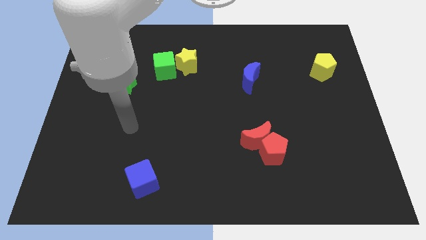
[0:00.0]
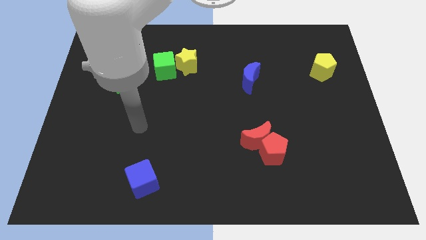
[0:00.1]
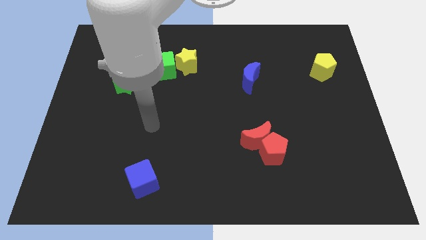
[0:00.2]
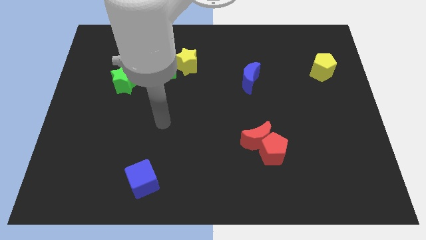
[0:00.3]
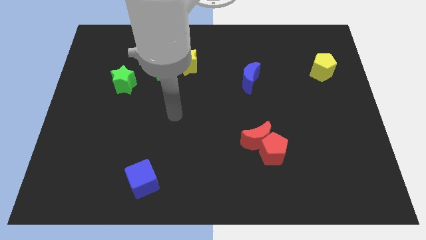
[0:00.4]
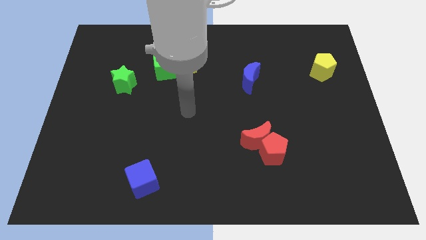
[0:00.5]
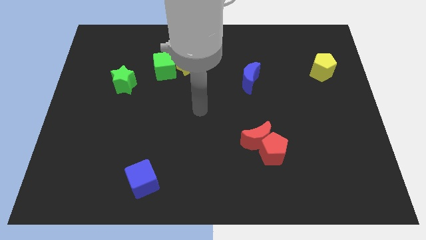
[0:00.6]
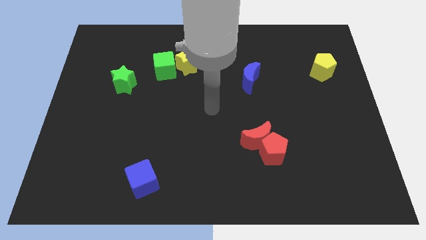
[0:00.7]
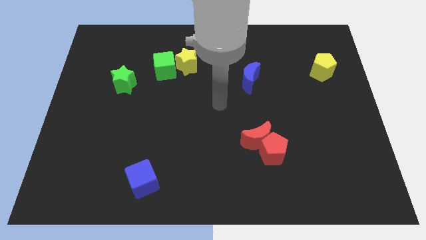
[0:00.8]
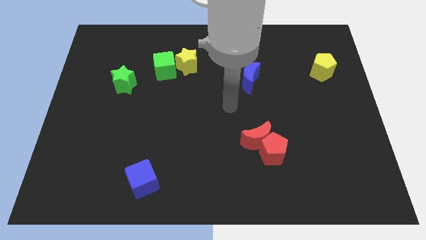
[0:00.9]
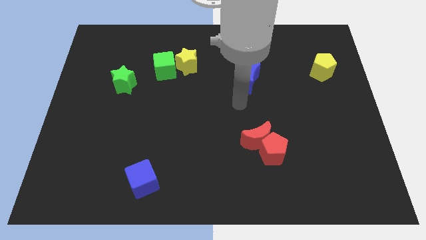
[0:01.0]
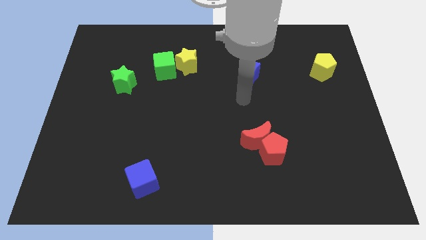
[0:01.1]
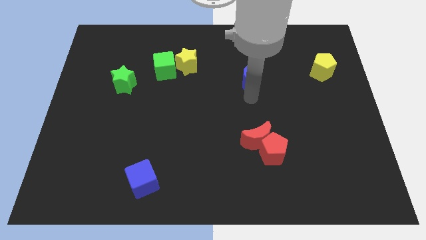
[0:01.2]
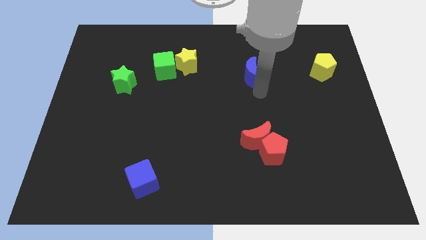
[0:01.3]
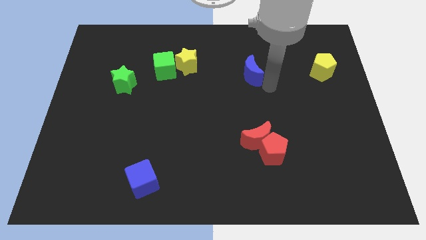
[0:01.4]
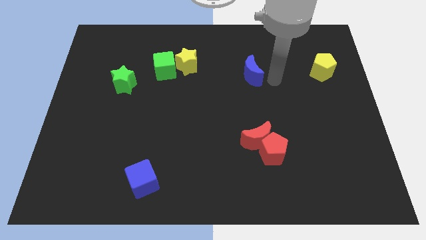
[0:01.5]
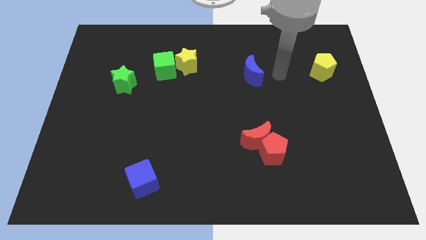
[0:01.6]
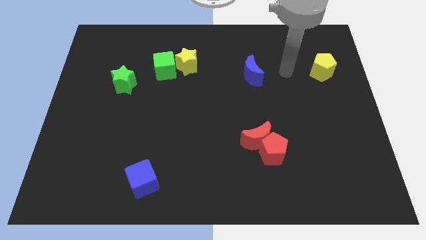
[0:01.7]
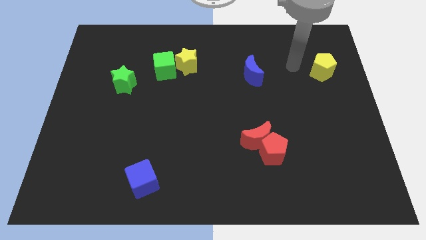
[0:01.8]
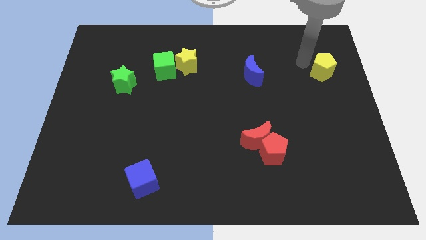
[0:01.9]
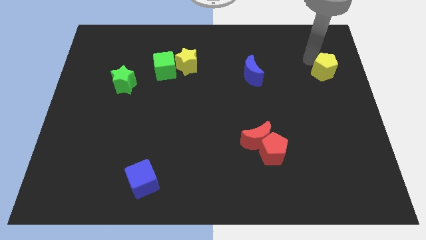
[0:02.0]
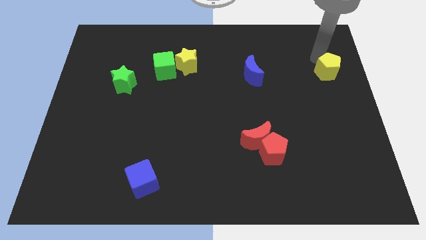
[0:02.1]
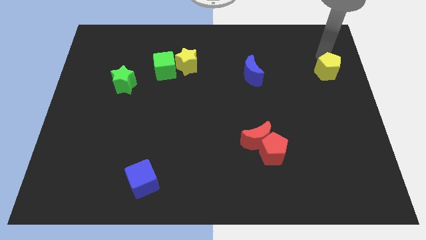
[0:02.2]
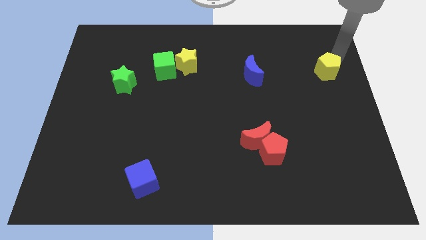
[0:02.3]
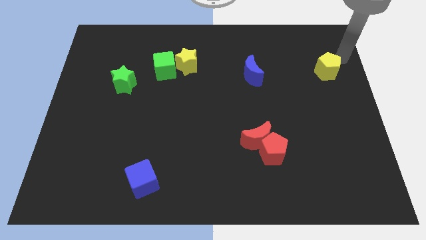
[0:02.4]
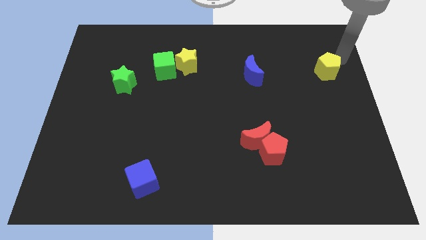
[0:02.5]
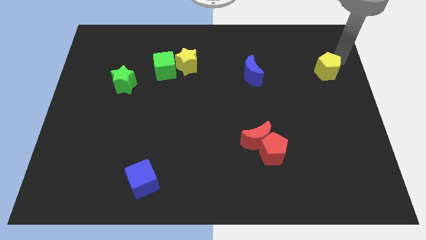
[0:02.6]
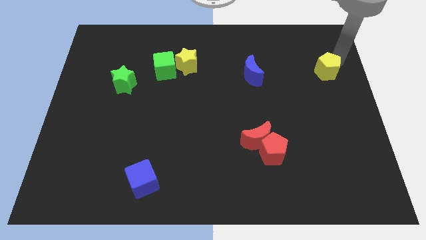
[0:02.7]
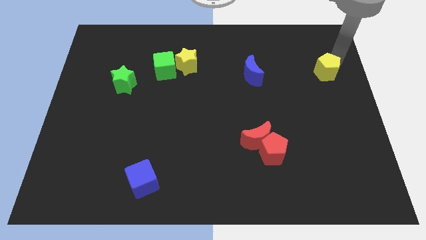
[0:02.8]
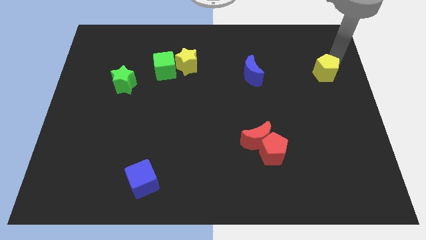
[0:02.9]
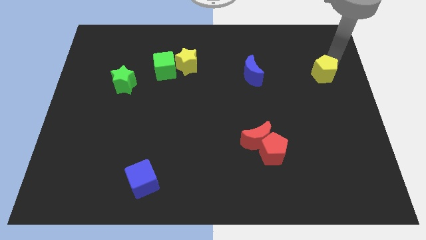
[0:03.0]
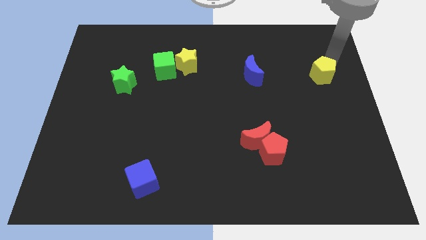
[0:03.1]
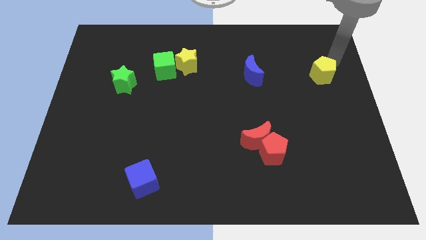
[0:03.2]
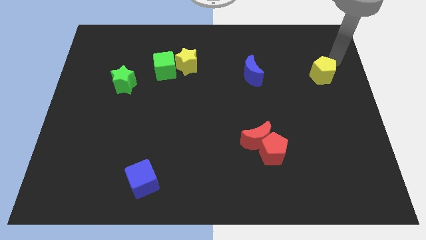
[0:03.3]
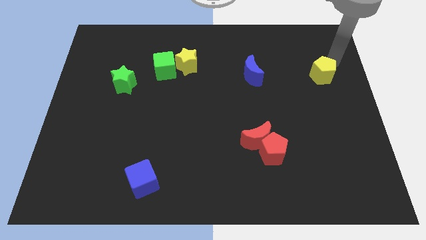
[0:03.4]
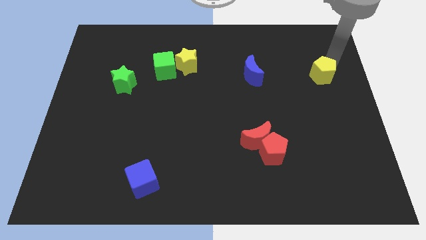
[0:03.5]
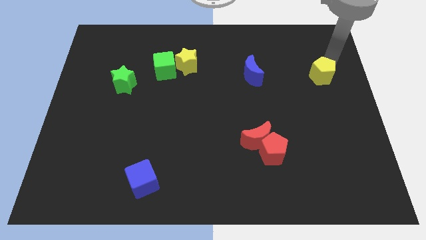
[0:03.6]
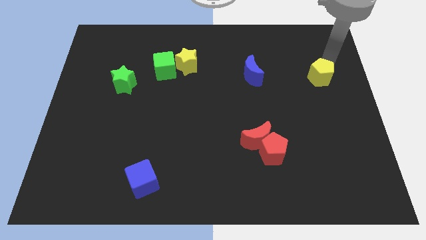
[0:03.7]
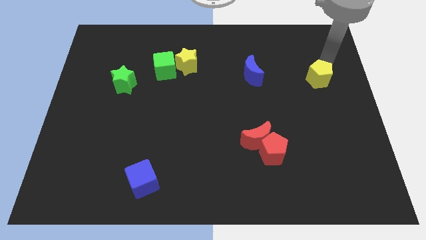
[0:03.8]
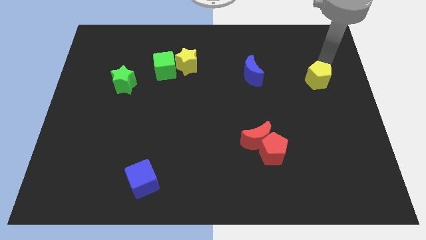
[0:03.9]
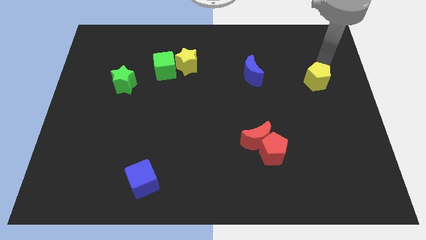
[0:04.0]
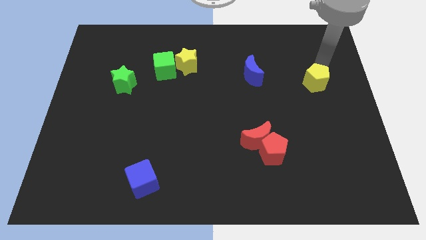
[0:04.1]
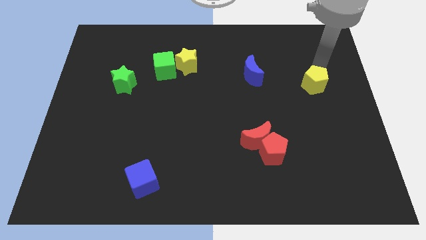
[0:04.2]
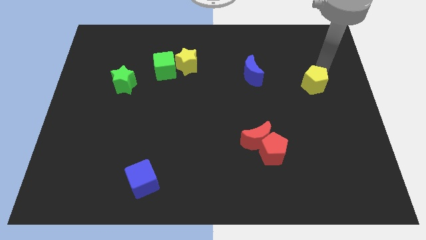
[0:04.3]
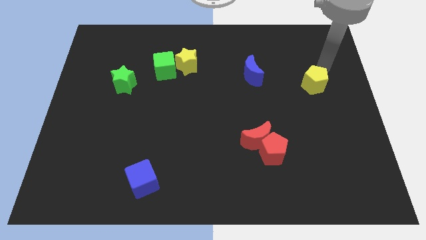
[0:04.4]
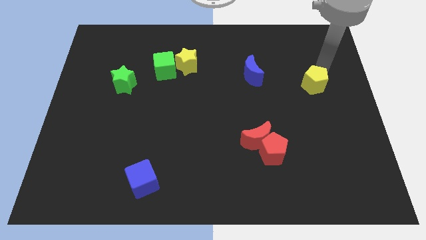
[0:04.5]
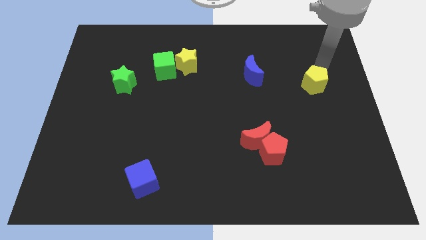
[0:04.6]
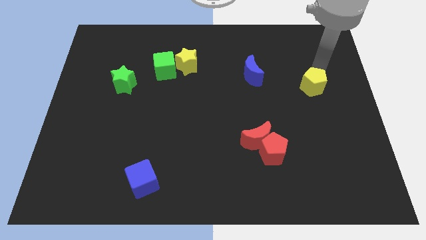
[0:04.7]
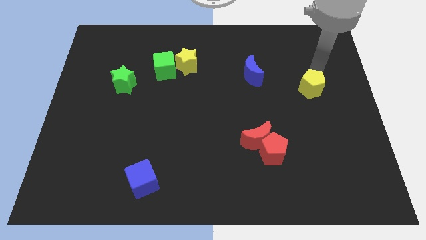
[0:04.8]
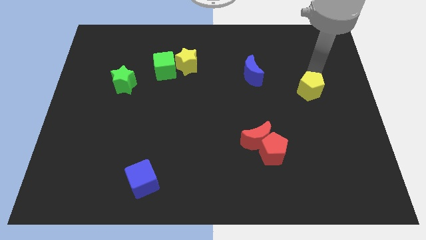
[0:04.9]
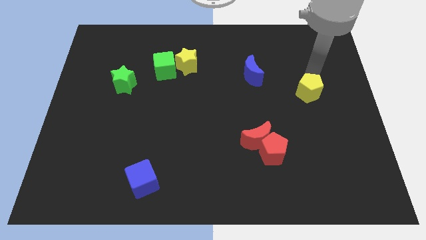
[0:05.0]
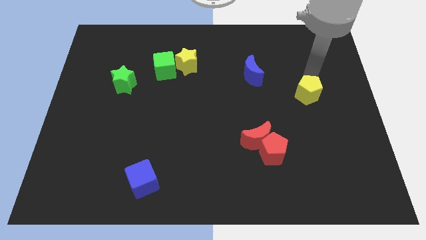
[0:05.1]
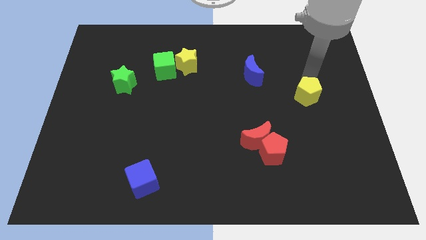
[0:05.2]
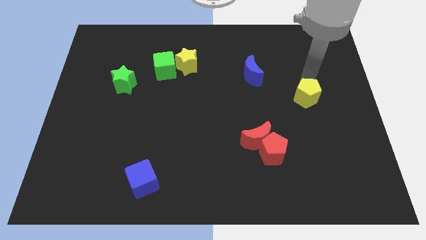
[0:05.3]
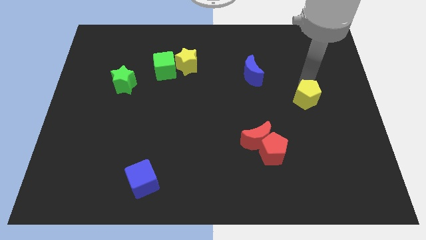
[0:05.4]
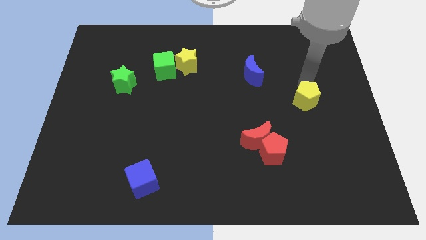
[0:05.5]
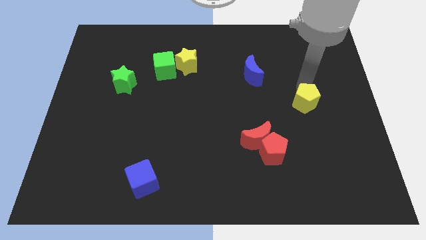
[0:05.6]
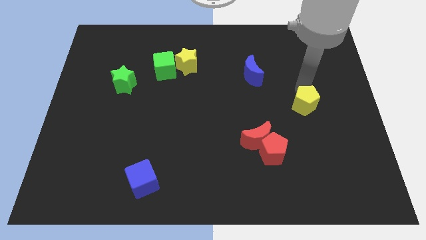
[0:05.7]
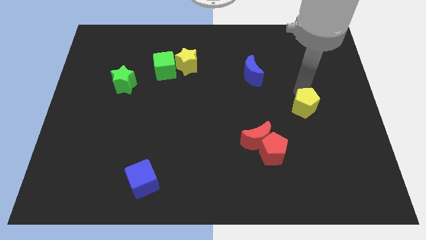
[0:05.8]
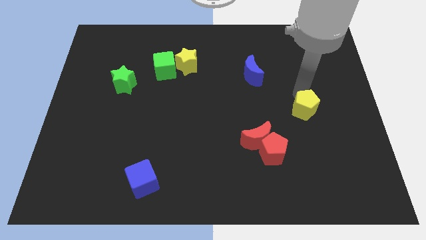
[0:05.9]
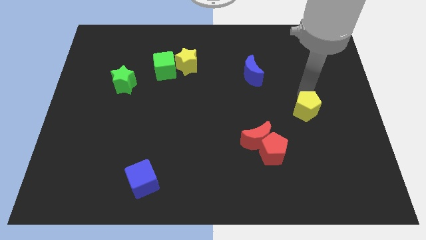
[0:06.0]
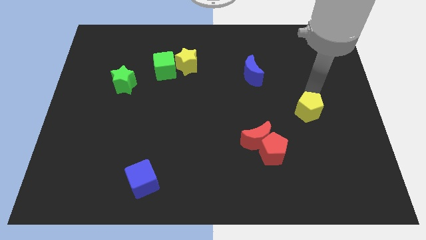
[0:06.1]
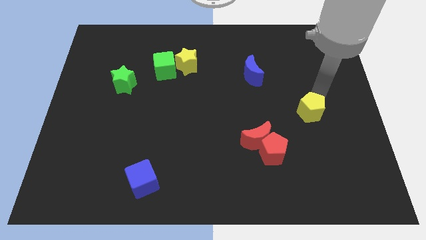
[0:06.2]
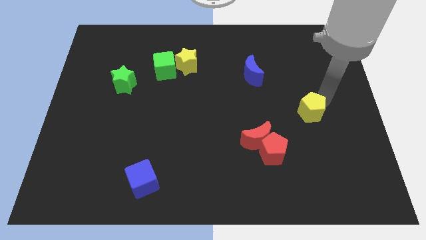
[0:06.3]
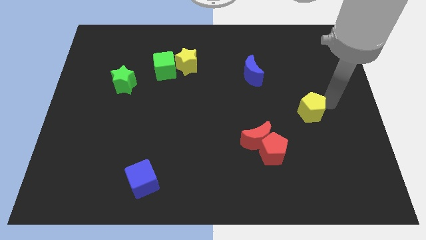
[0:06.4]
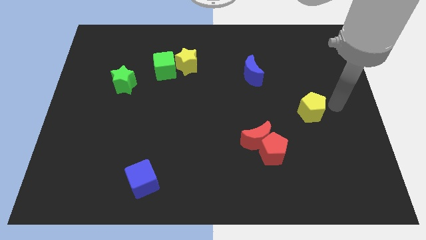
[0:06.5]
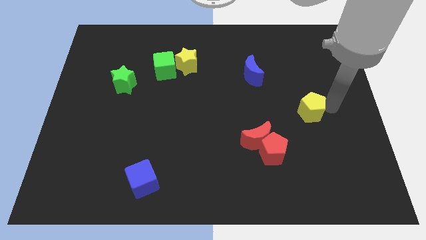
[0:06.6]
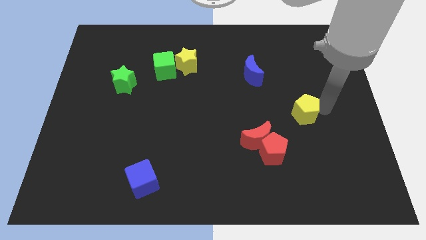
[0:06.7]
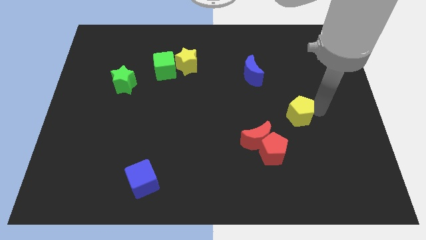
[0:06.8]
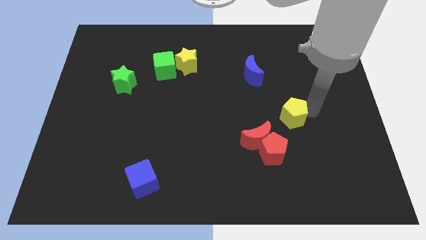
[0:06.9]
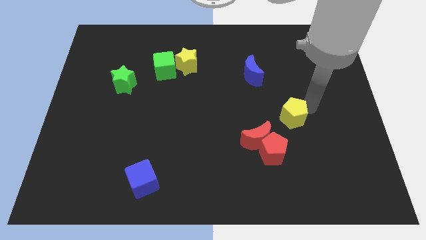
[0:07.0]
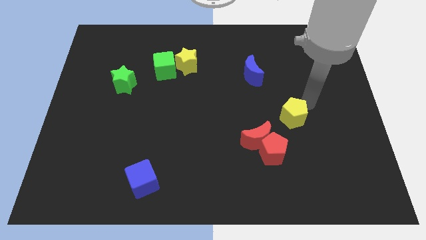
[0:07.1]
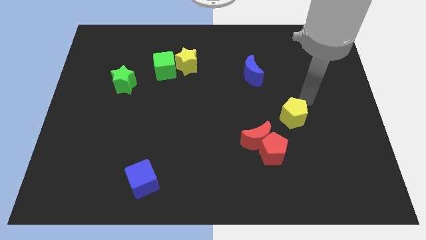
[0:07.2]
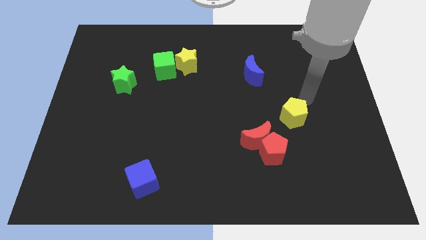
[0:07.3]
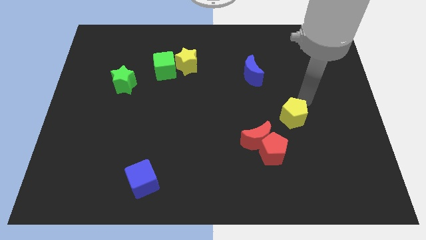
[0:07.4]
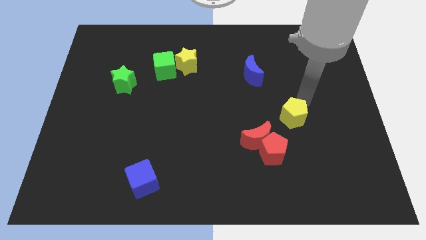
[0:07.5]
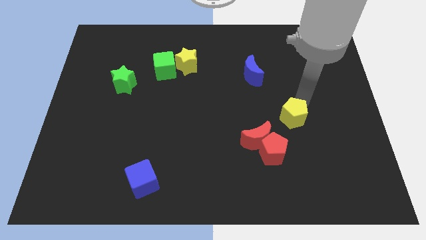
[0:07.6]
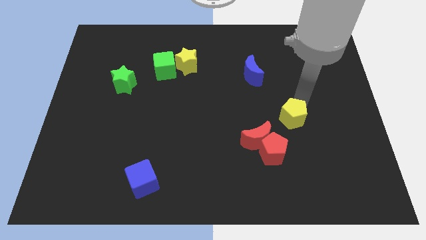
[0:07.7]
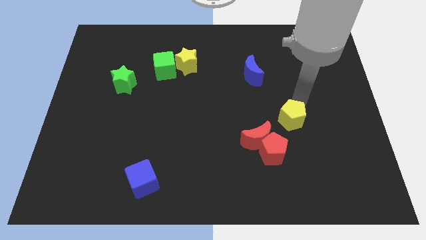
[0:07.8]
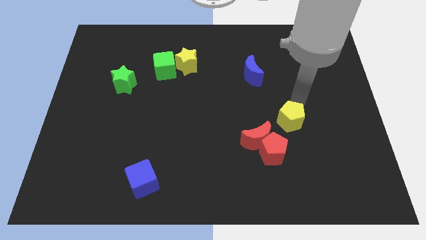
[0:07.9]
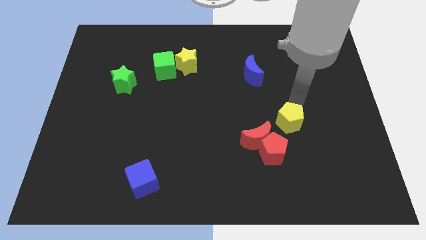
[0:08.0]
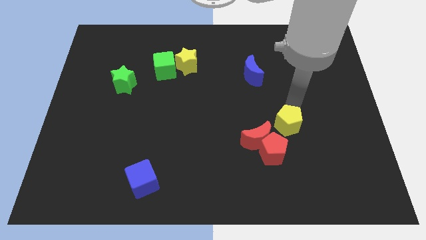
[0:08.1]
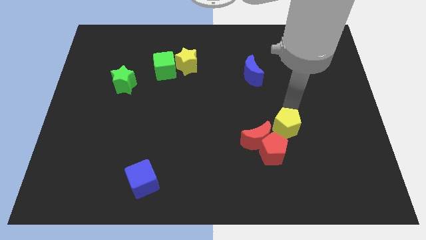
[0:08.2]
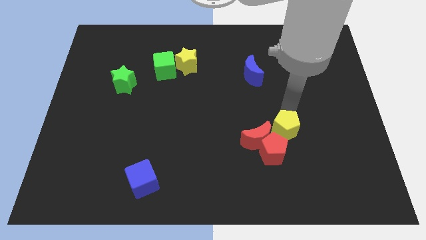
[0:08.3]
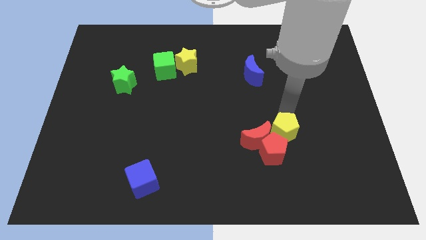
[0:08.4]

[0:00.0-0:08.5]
put the yellow pentagon towards the red pentagon
